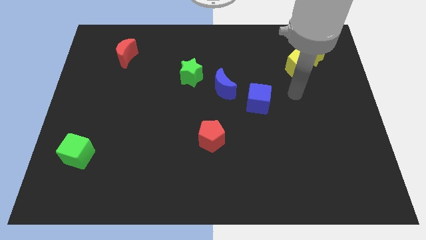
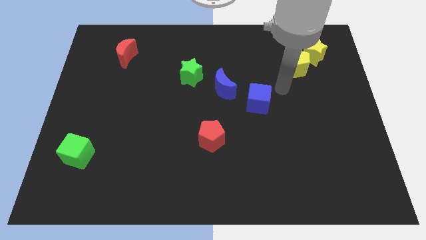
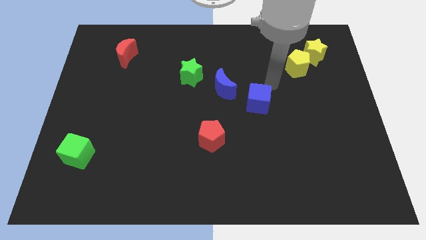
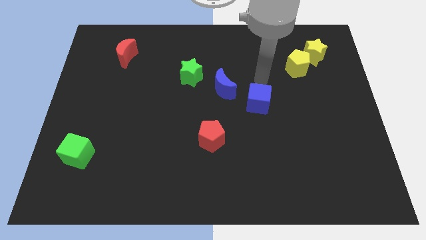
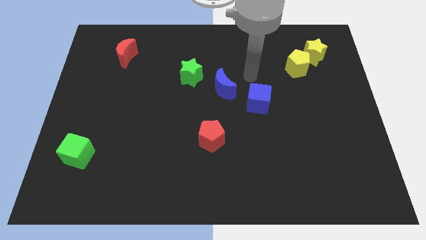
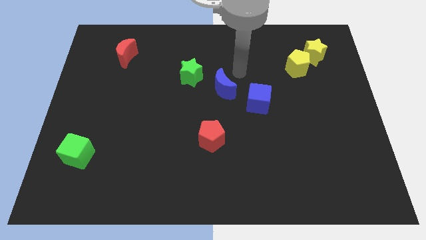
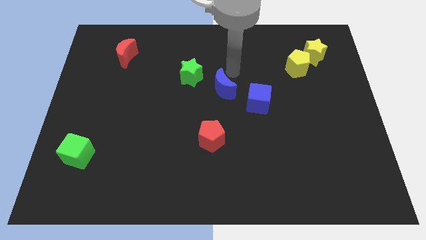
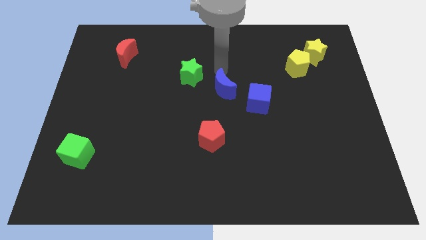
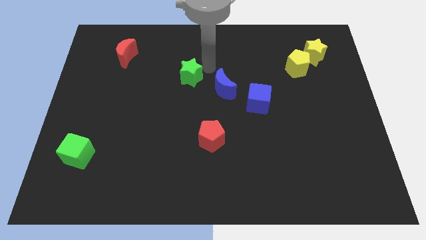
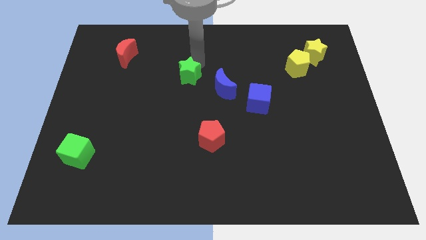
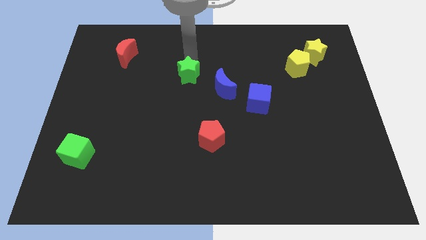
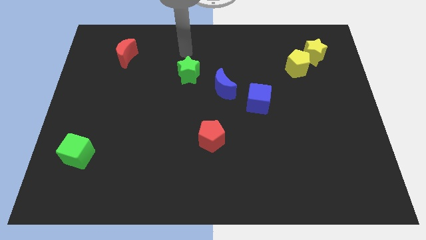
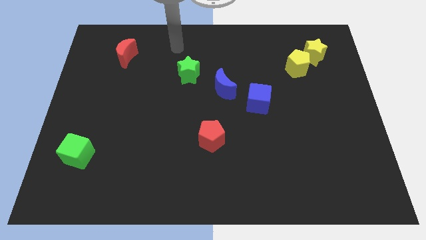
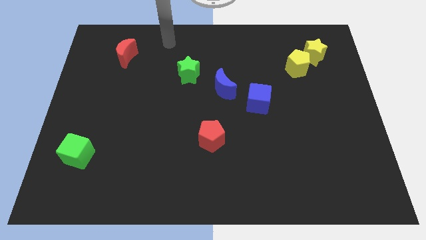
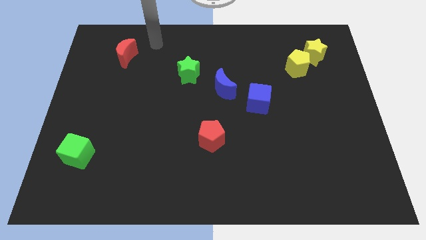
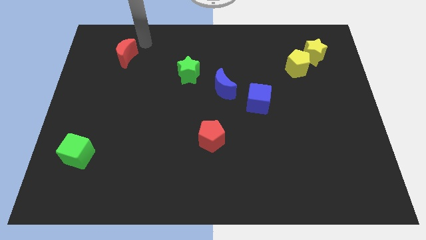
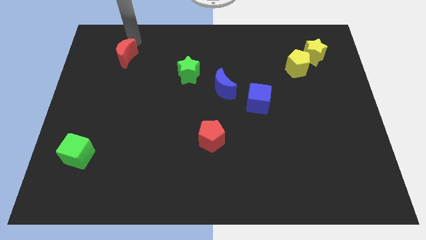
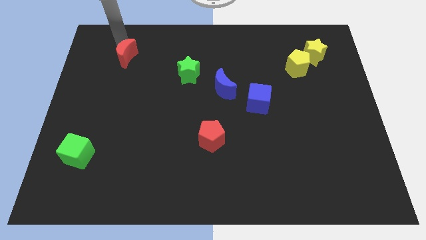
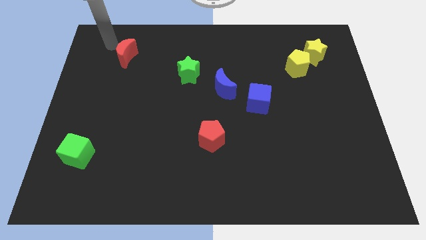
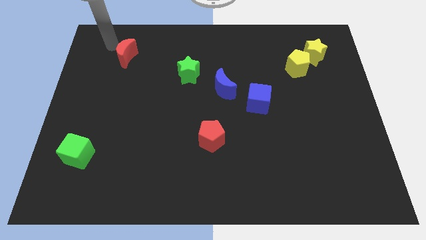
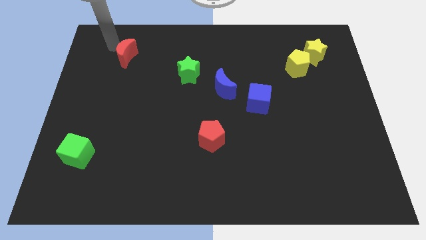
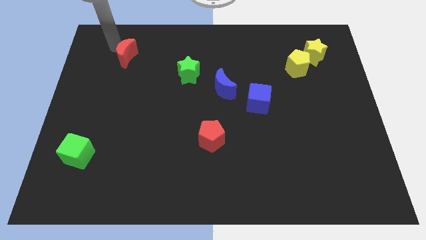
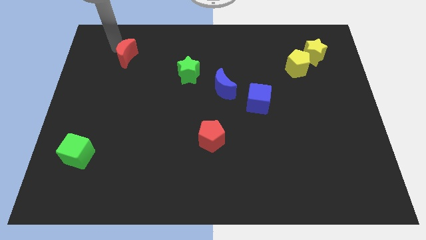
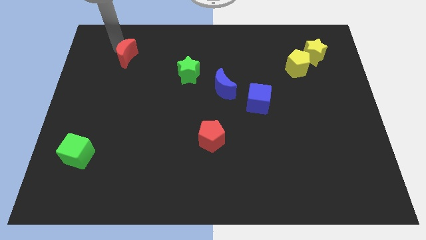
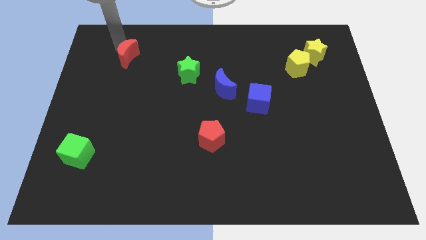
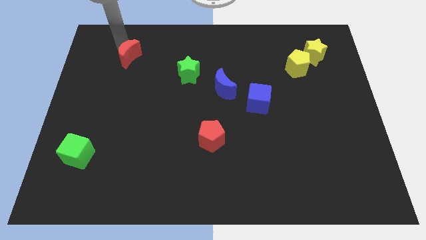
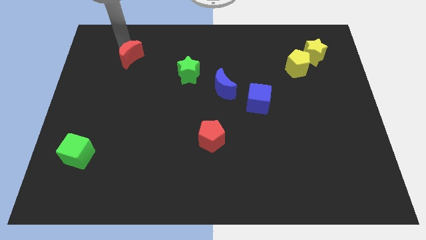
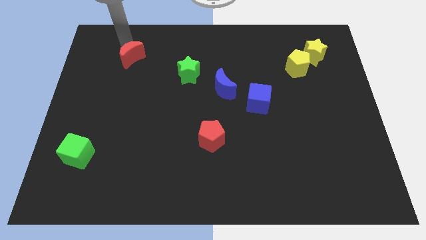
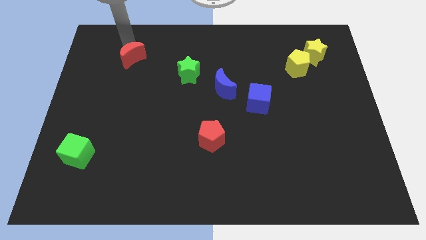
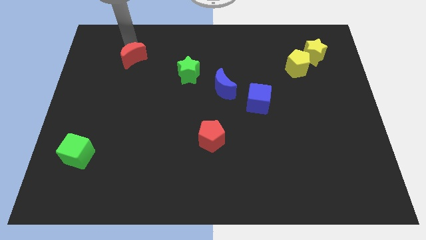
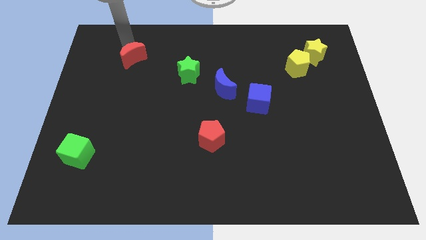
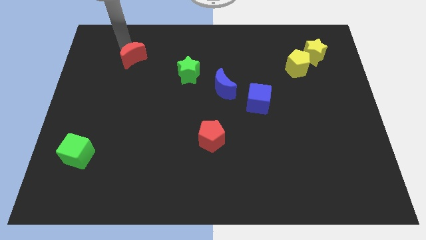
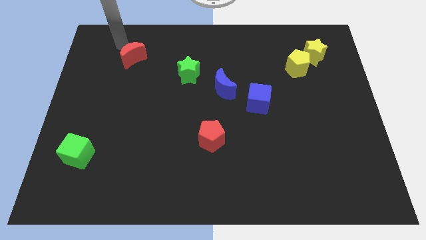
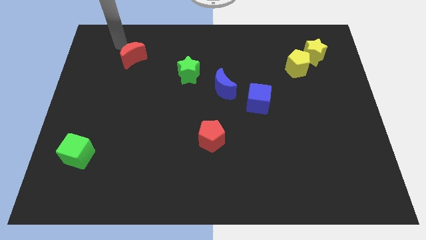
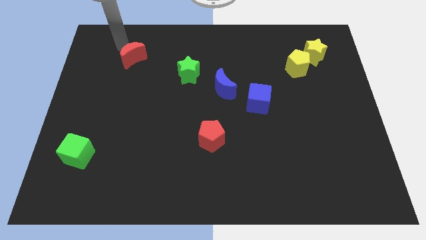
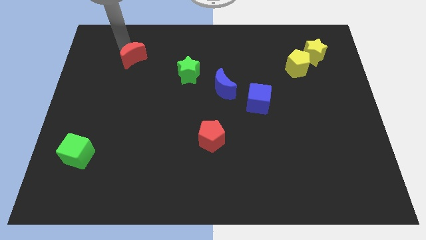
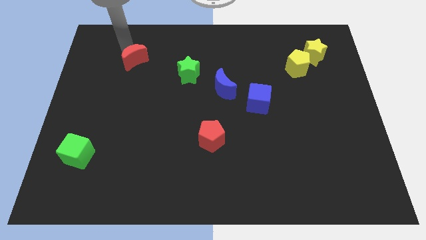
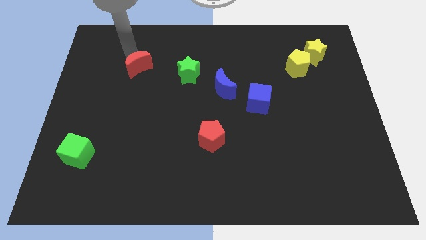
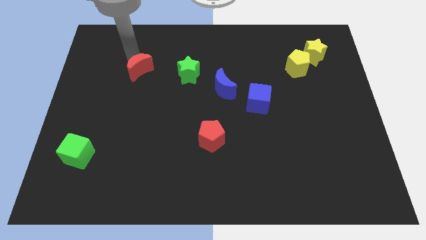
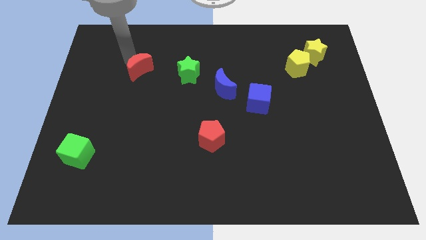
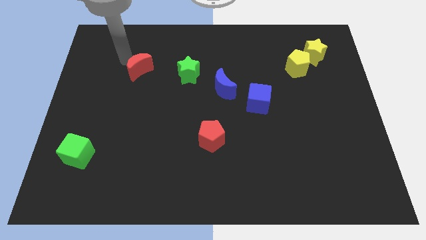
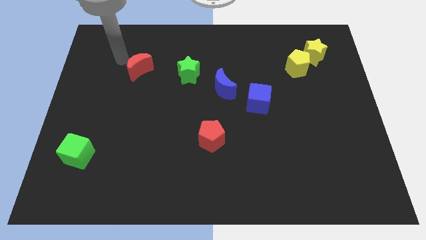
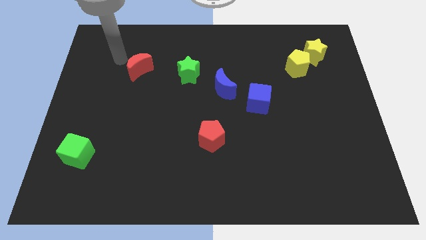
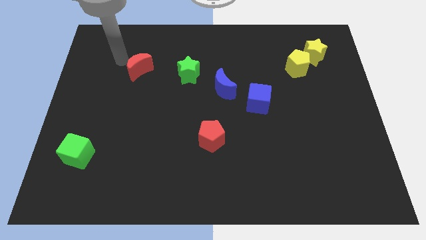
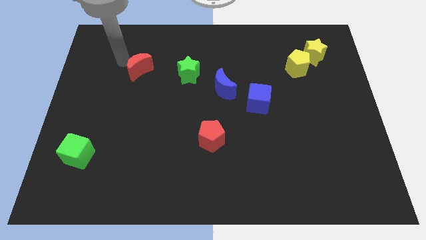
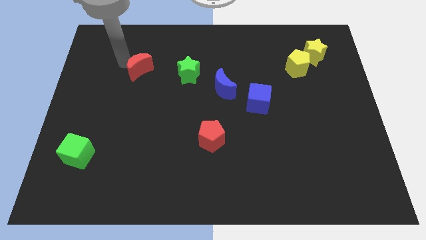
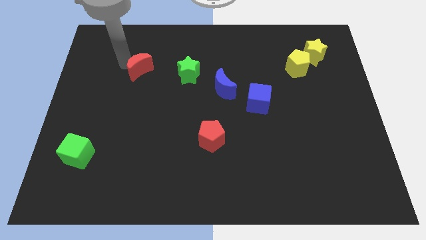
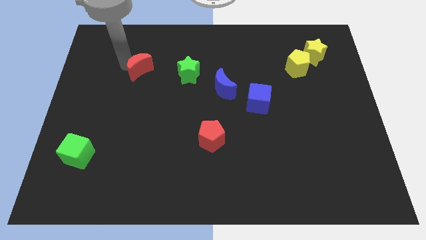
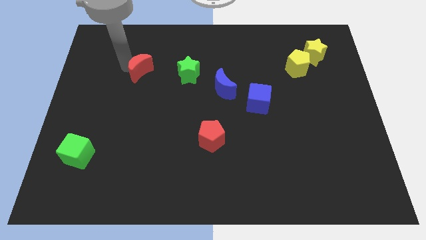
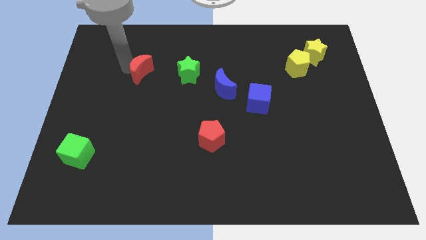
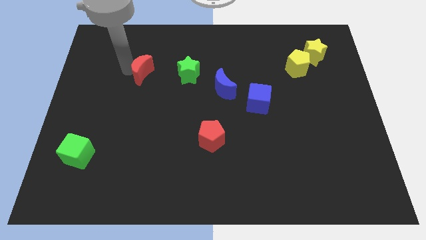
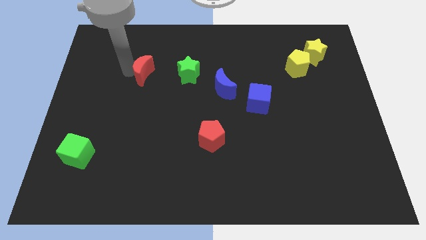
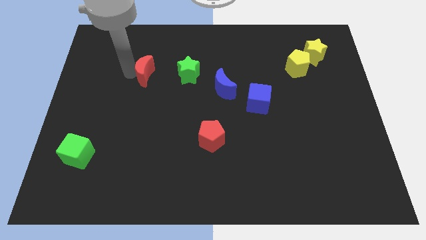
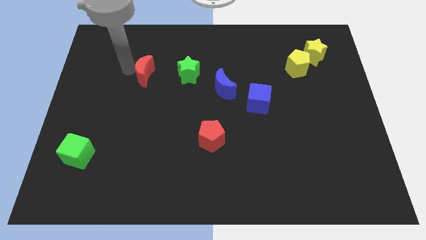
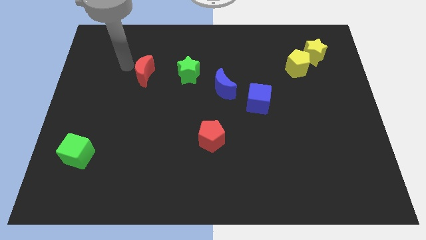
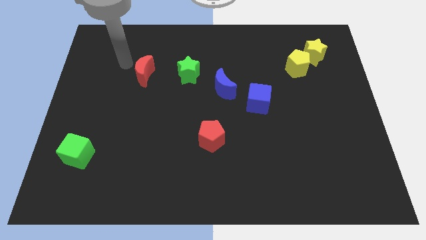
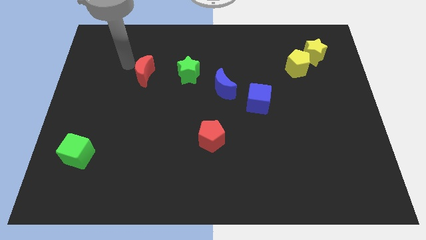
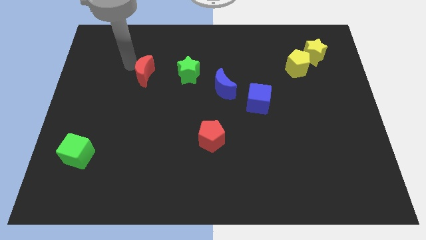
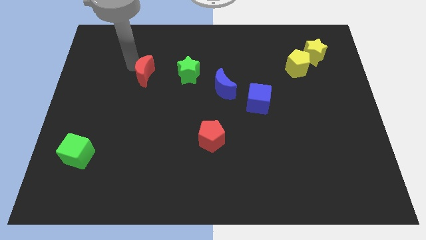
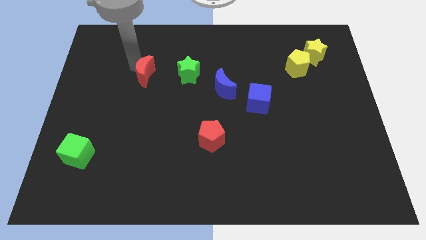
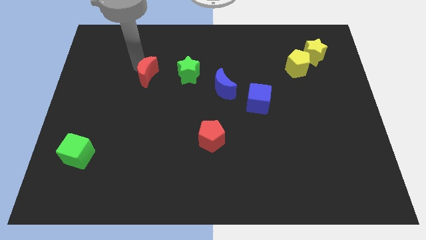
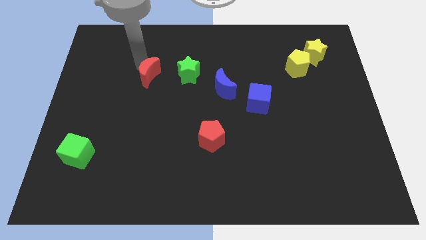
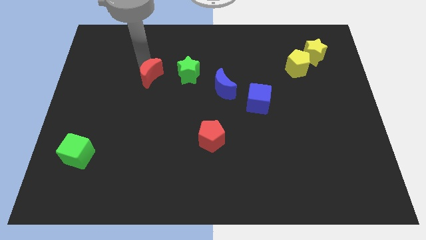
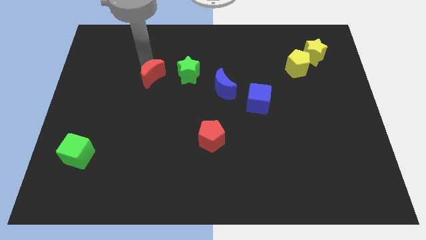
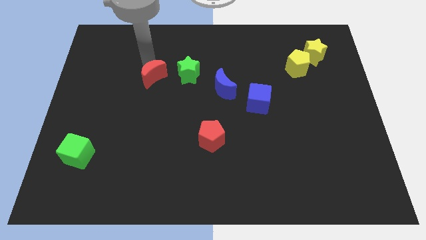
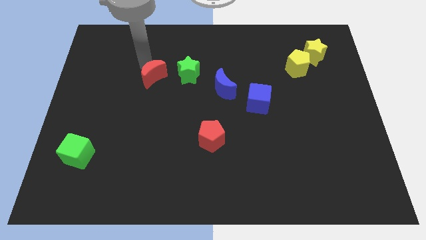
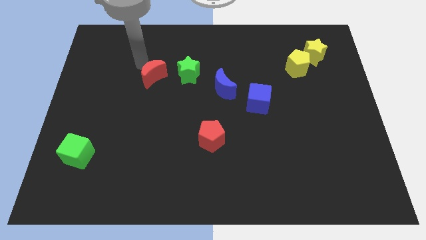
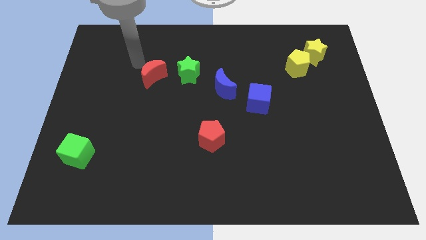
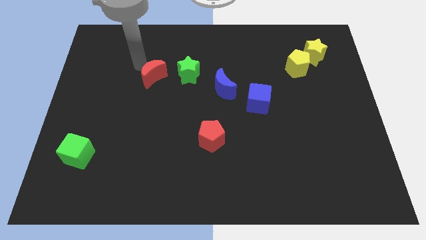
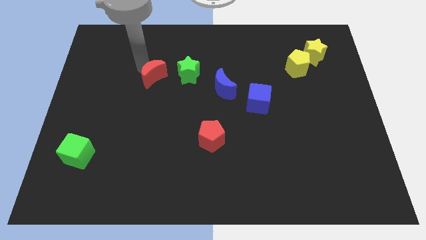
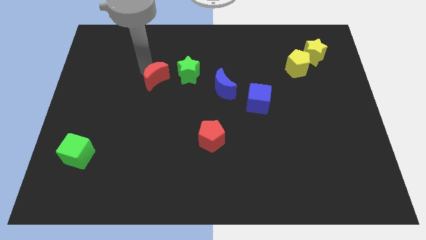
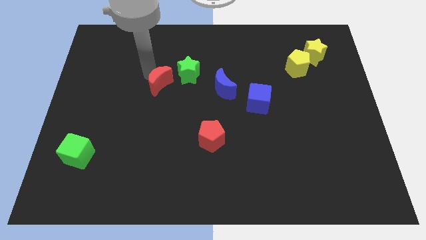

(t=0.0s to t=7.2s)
move the red moon left of the blue moon

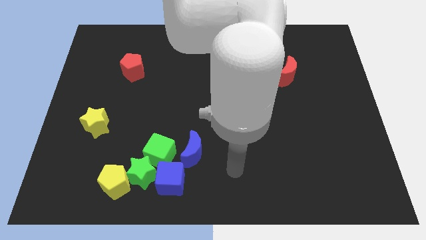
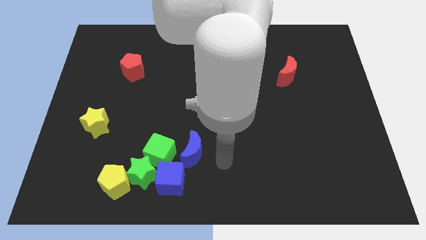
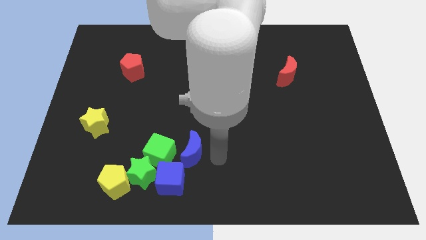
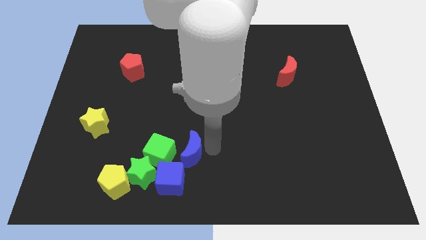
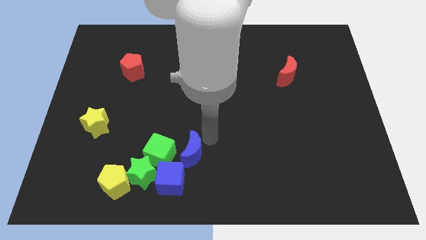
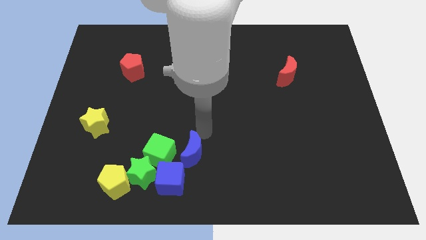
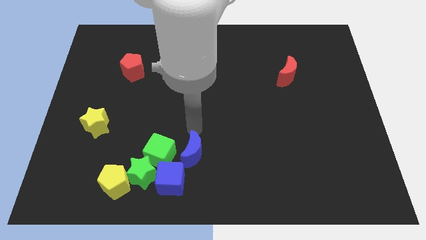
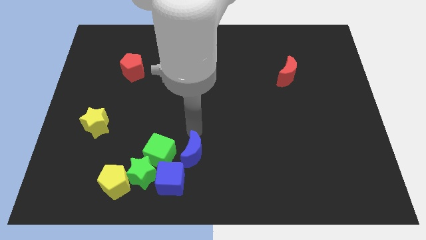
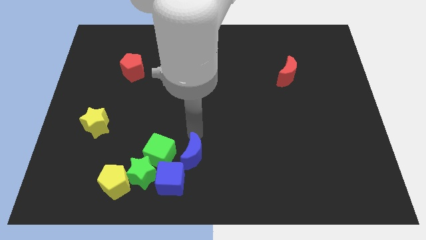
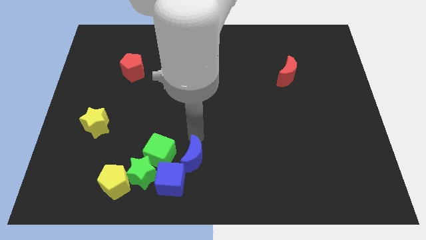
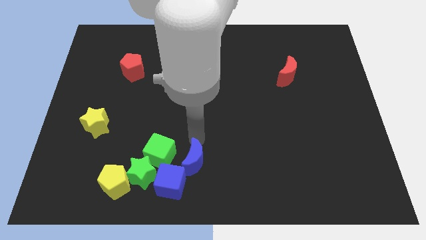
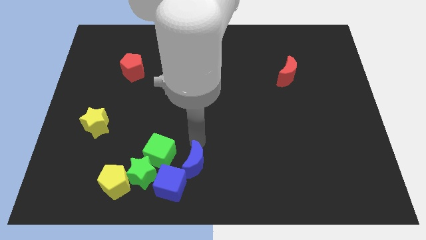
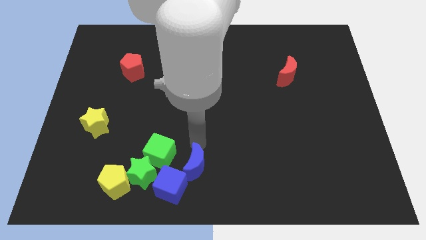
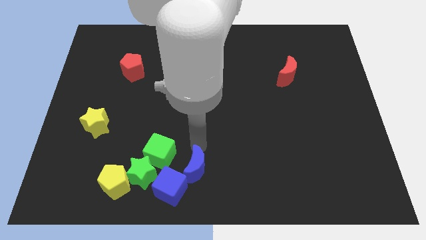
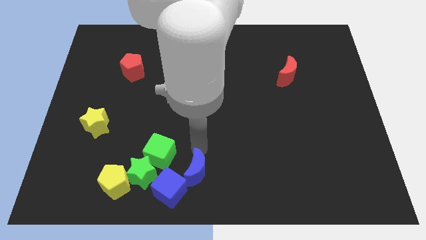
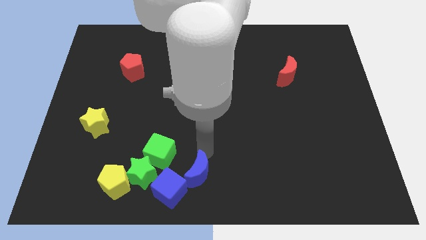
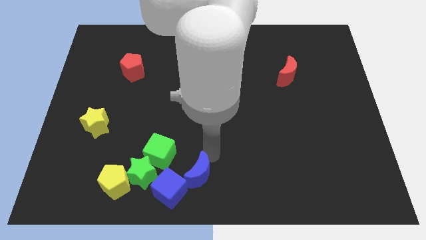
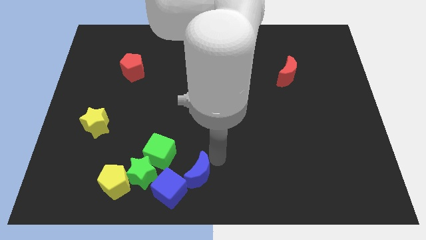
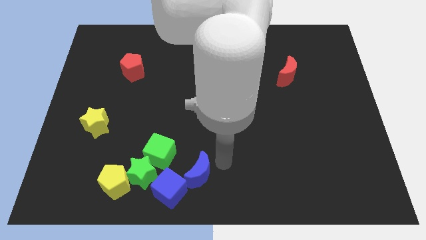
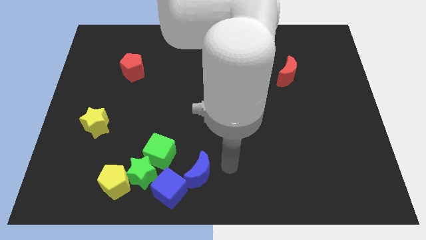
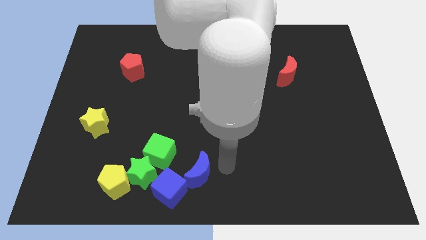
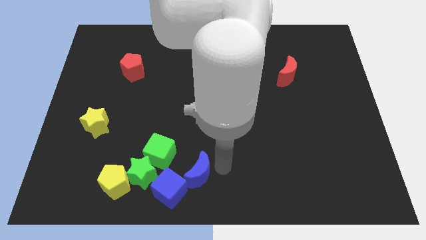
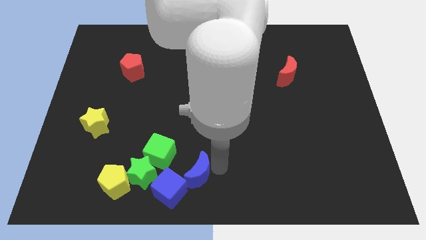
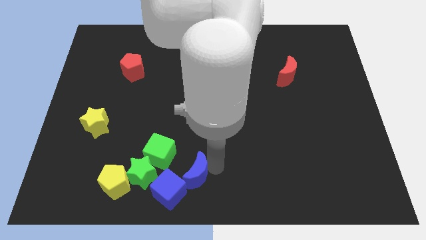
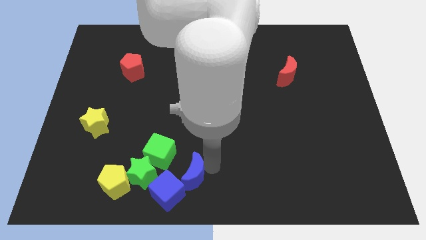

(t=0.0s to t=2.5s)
push the blue moon to the right of the yellow pentagon
